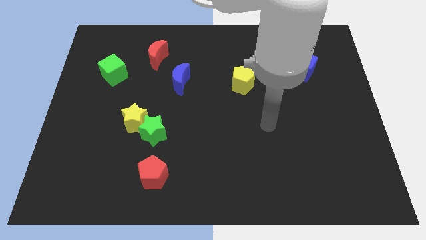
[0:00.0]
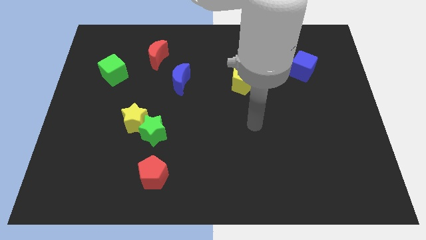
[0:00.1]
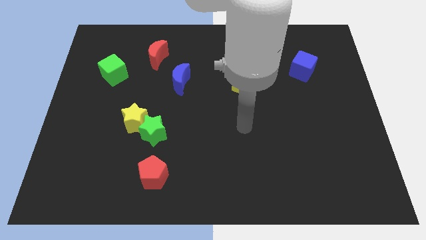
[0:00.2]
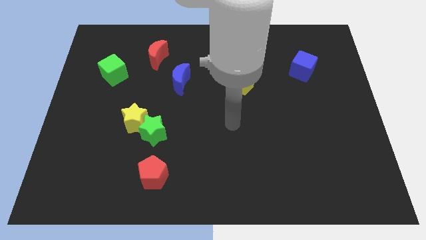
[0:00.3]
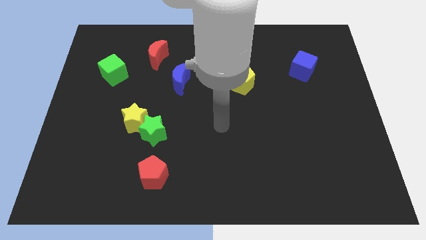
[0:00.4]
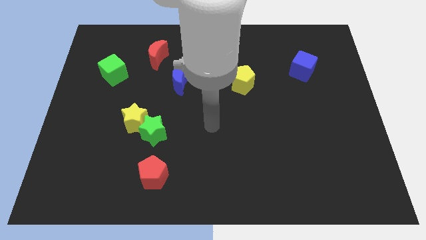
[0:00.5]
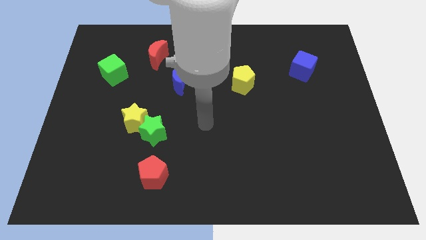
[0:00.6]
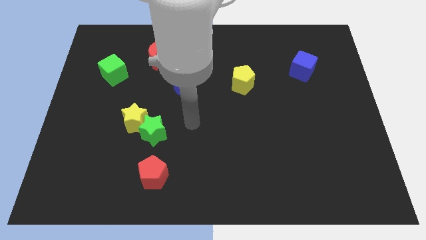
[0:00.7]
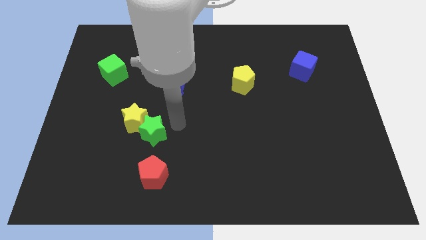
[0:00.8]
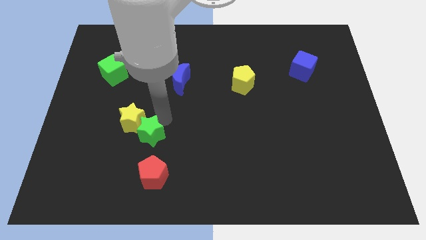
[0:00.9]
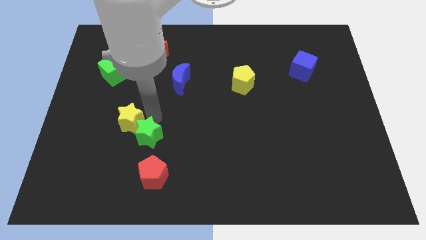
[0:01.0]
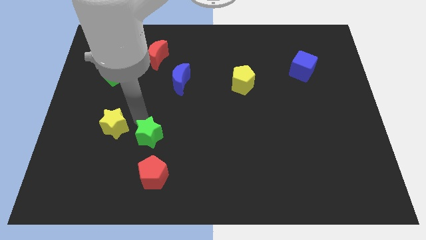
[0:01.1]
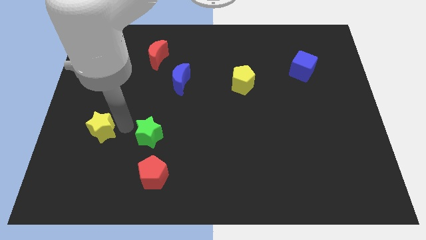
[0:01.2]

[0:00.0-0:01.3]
separate the green star from the yellow star

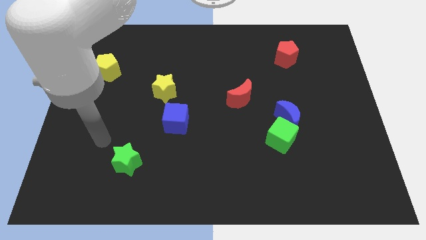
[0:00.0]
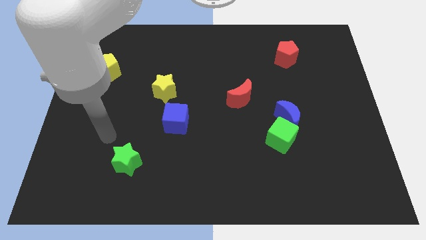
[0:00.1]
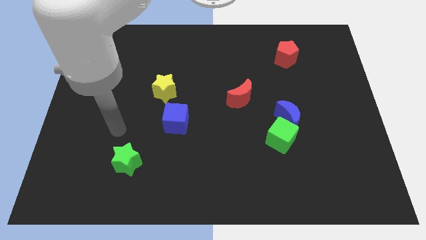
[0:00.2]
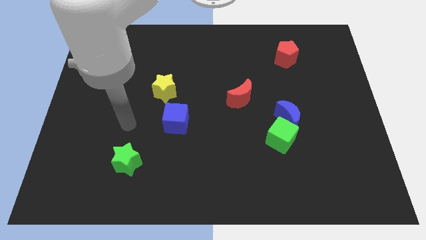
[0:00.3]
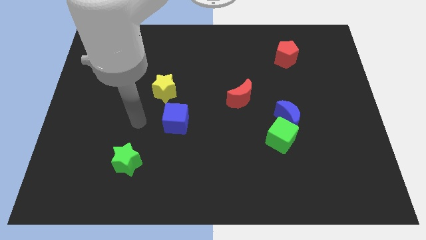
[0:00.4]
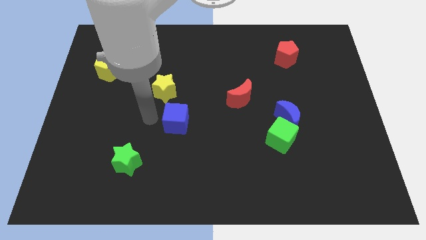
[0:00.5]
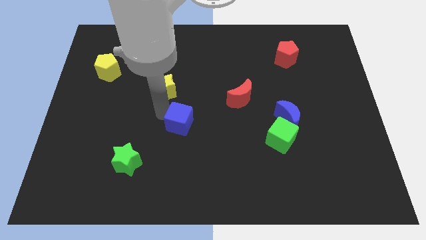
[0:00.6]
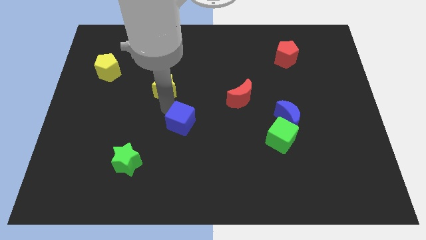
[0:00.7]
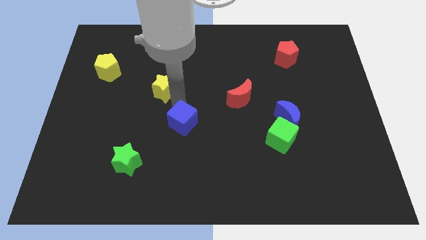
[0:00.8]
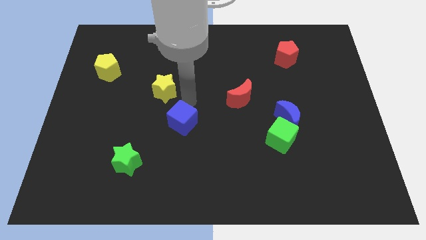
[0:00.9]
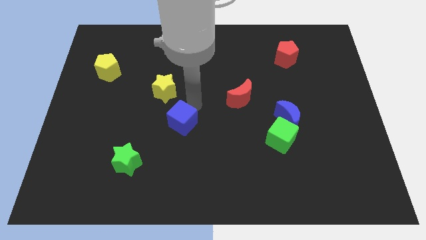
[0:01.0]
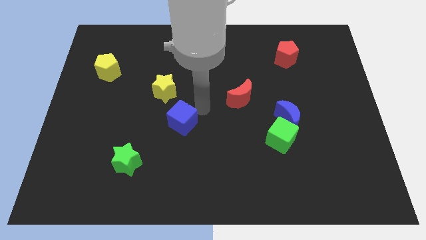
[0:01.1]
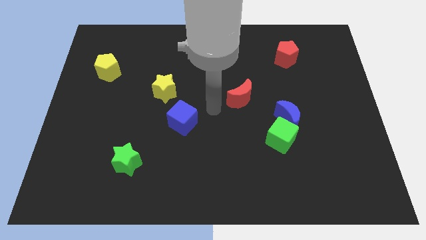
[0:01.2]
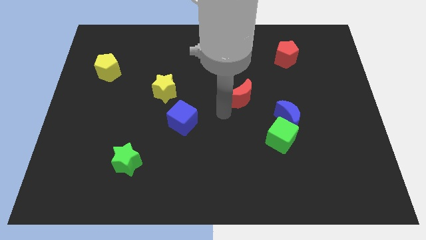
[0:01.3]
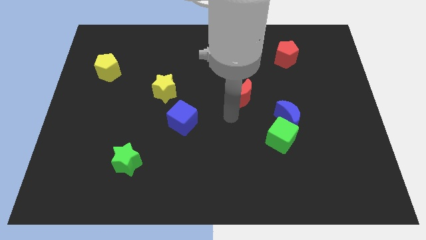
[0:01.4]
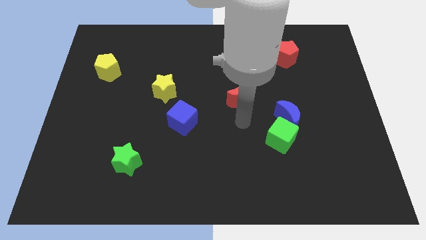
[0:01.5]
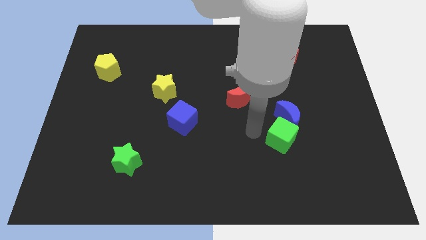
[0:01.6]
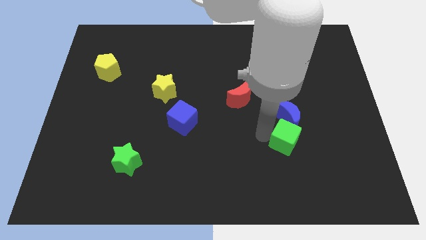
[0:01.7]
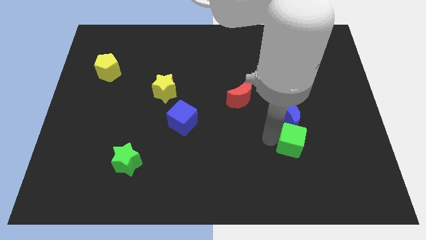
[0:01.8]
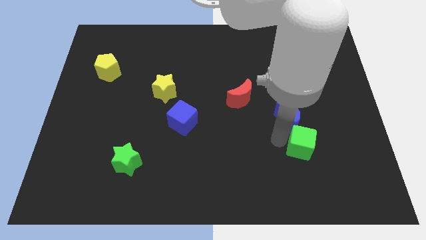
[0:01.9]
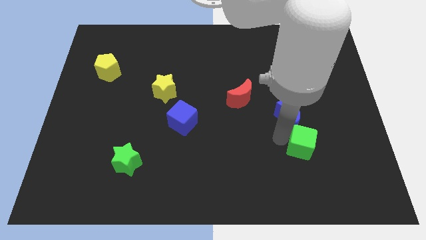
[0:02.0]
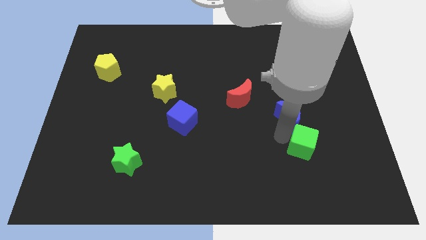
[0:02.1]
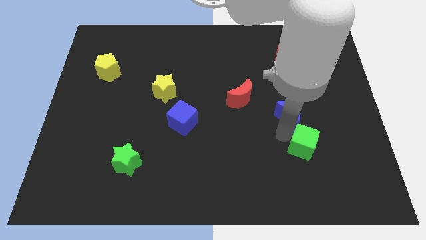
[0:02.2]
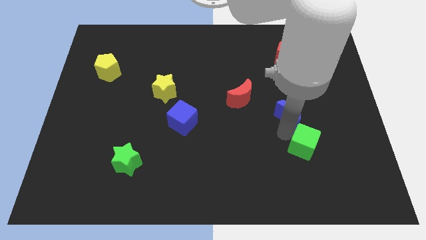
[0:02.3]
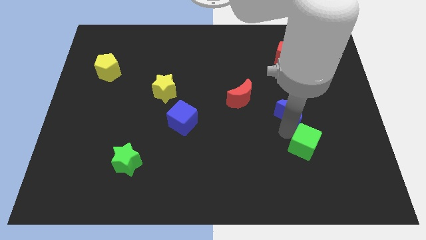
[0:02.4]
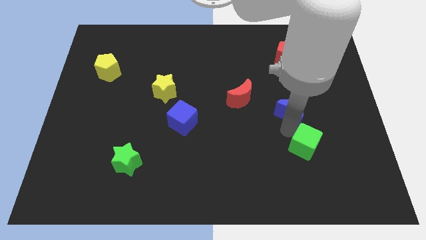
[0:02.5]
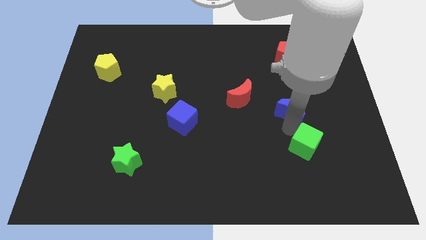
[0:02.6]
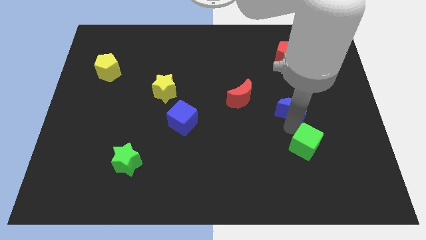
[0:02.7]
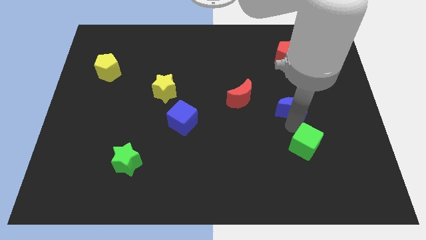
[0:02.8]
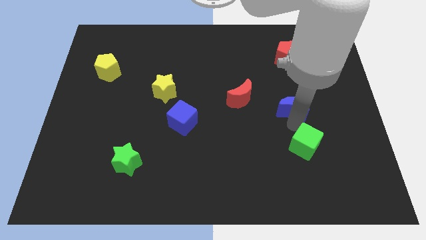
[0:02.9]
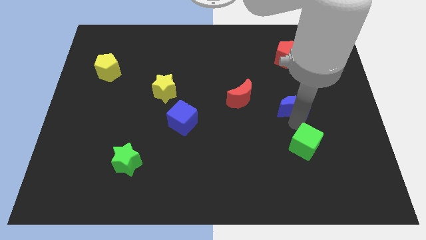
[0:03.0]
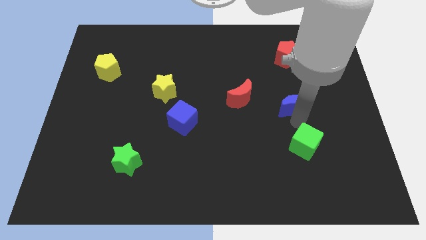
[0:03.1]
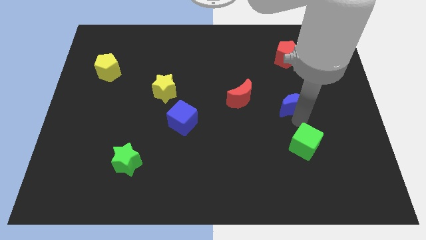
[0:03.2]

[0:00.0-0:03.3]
move the blue moon away from the green cube

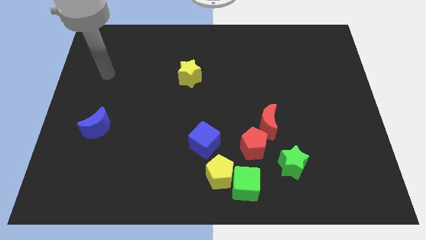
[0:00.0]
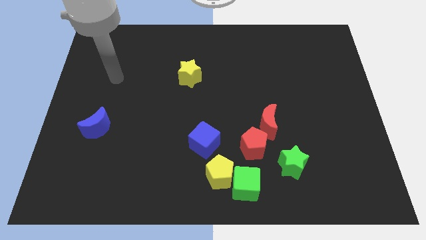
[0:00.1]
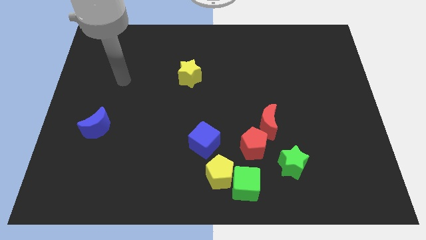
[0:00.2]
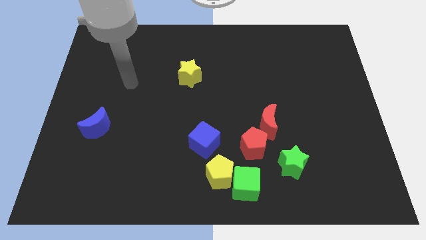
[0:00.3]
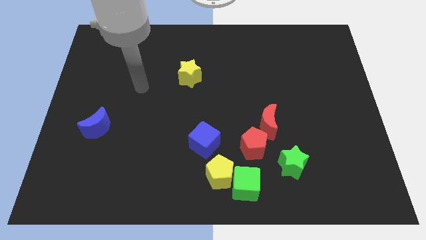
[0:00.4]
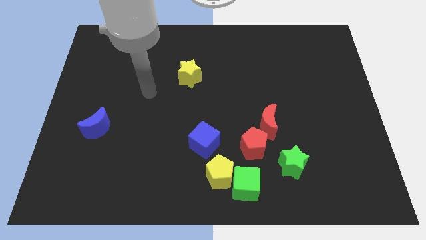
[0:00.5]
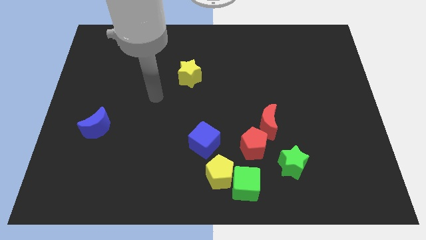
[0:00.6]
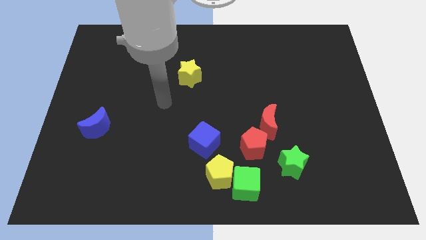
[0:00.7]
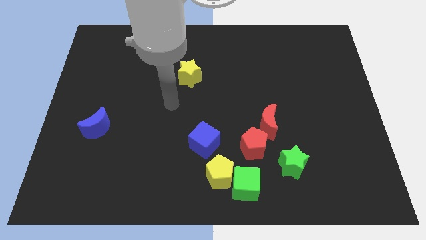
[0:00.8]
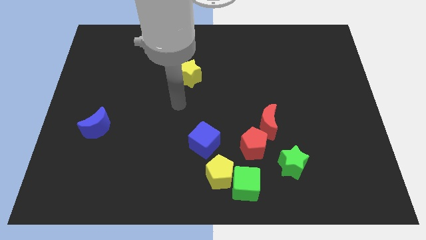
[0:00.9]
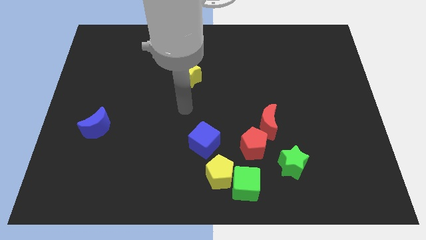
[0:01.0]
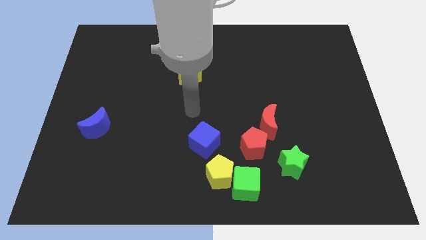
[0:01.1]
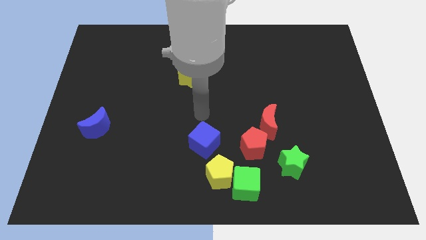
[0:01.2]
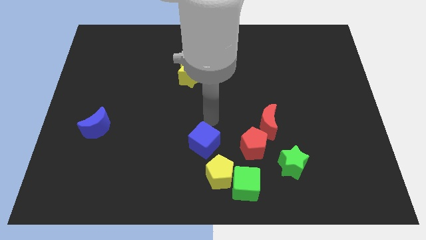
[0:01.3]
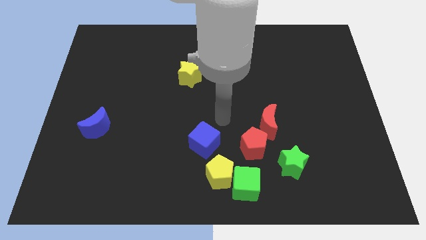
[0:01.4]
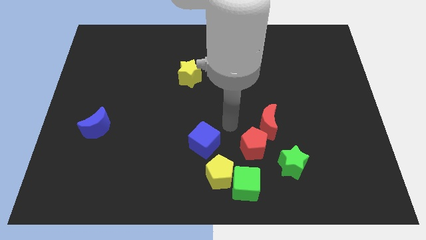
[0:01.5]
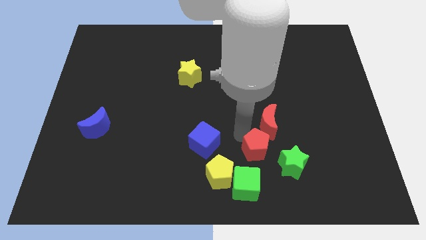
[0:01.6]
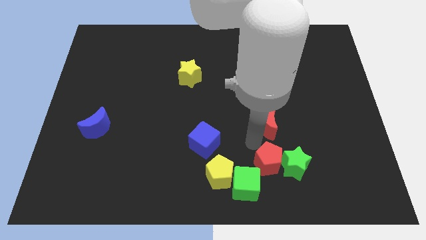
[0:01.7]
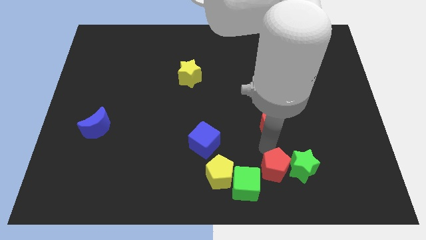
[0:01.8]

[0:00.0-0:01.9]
pull the red moon apart from the red pentagon

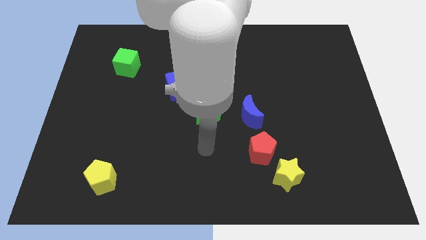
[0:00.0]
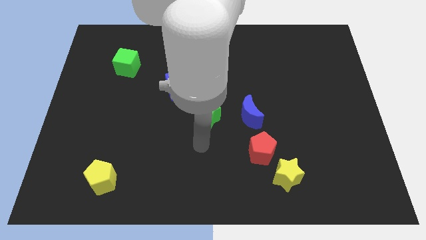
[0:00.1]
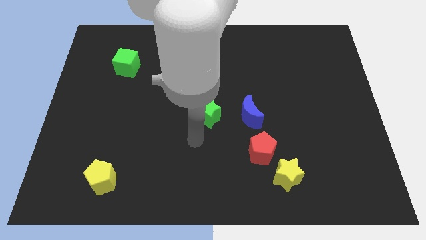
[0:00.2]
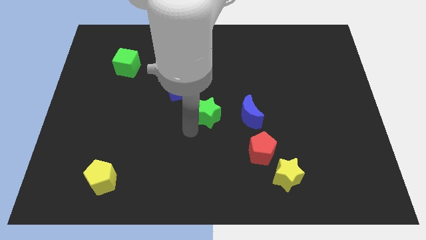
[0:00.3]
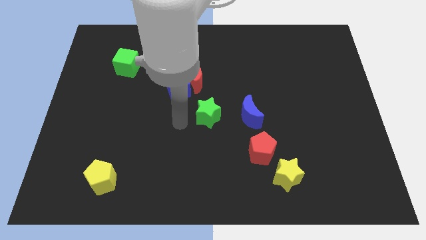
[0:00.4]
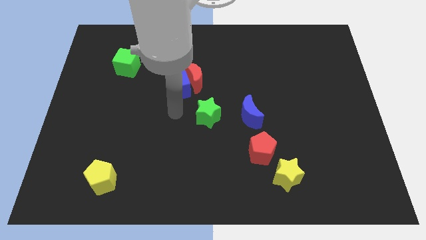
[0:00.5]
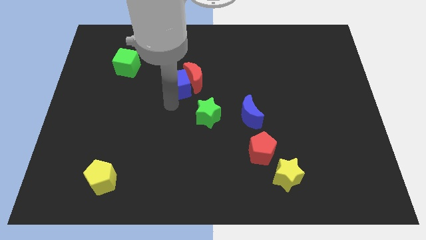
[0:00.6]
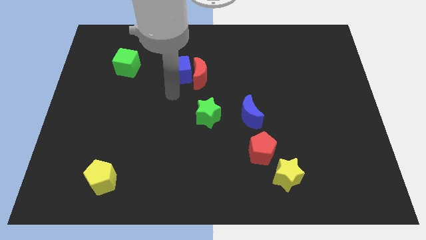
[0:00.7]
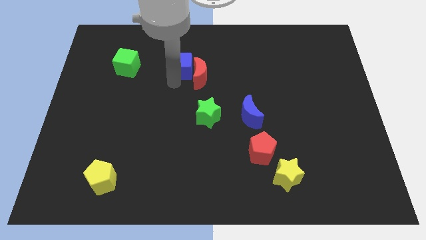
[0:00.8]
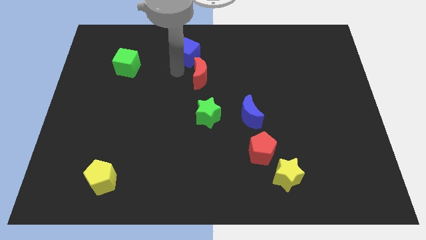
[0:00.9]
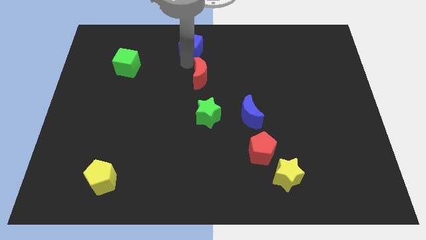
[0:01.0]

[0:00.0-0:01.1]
separate the red moon from the blue cube

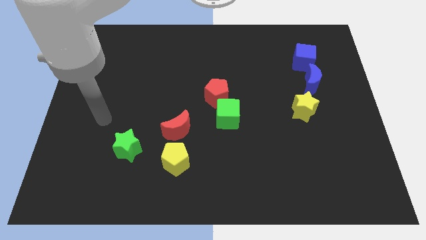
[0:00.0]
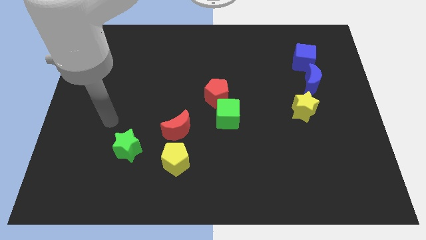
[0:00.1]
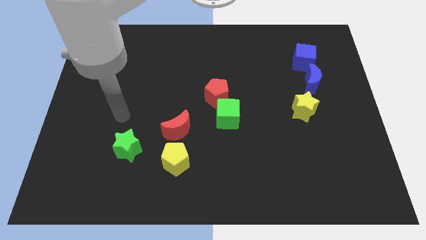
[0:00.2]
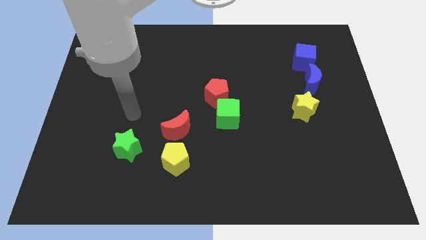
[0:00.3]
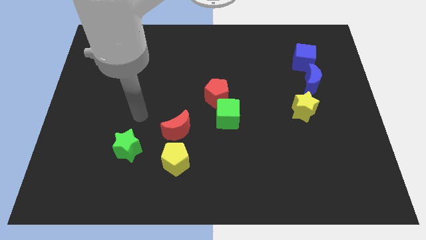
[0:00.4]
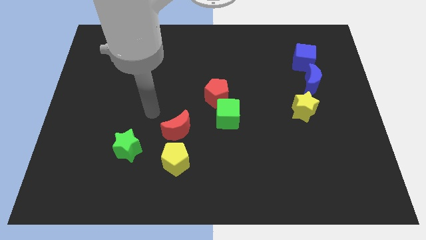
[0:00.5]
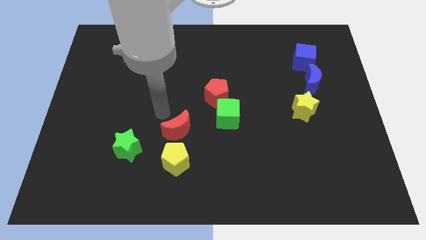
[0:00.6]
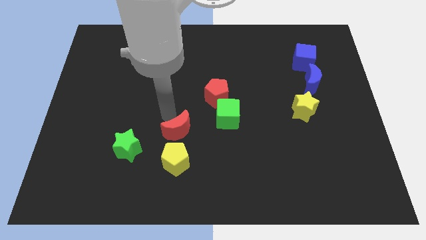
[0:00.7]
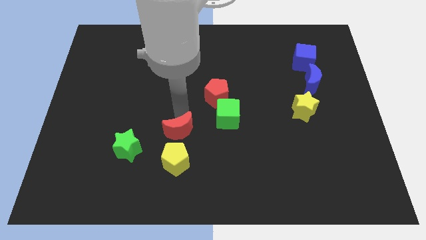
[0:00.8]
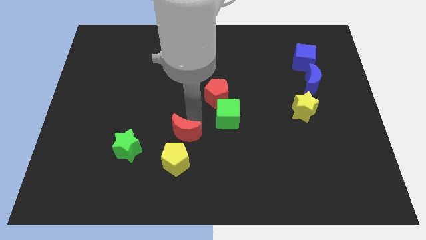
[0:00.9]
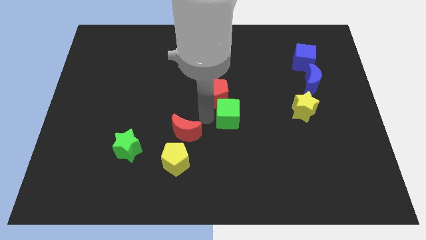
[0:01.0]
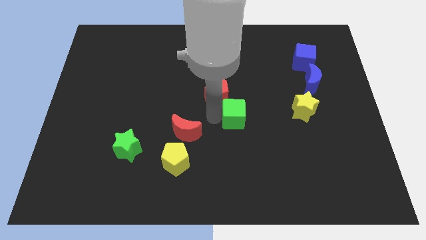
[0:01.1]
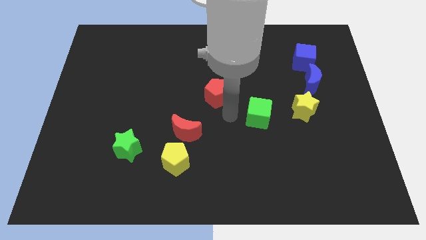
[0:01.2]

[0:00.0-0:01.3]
move the red pentagon away from the green cube

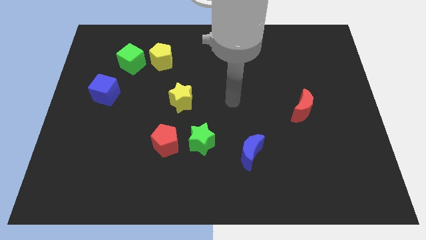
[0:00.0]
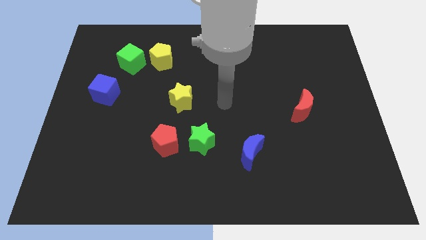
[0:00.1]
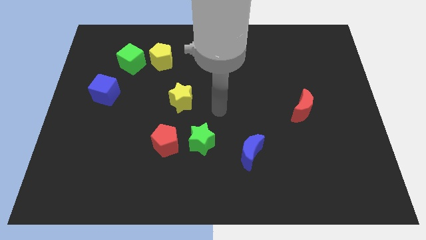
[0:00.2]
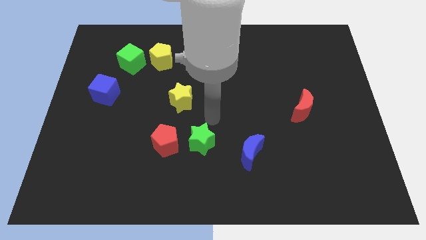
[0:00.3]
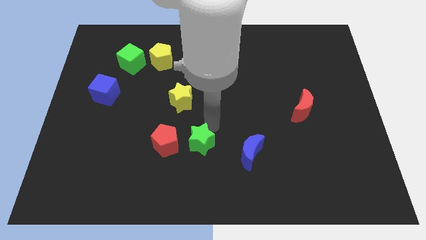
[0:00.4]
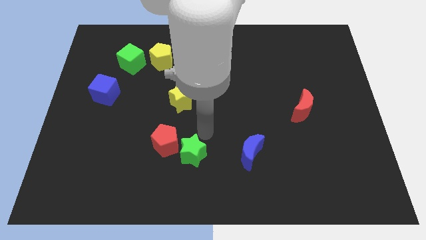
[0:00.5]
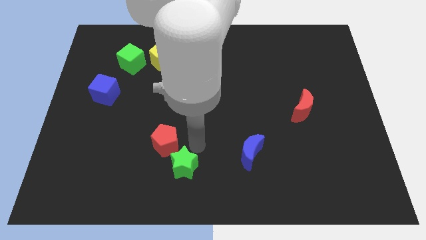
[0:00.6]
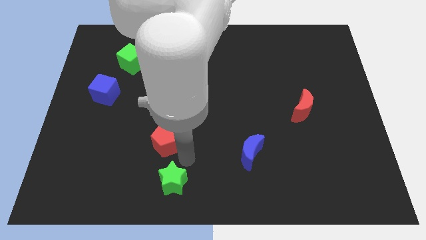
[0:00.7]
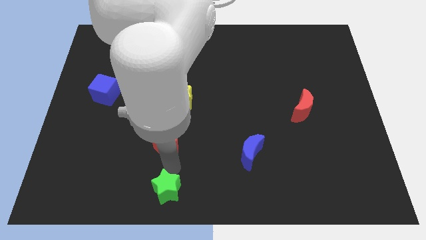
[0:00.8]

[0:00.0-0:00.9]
move the red pentagon away from the green star
